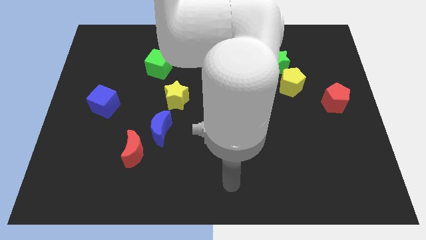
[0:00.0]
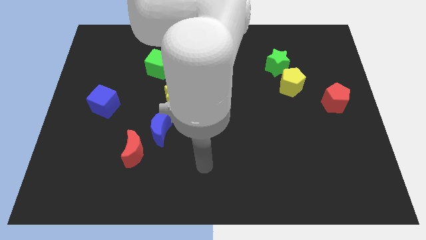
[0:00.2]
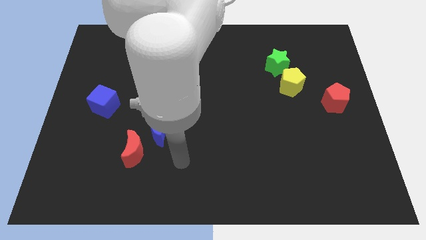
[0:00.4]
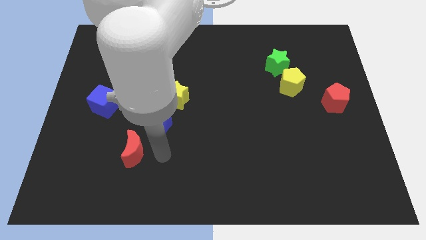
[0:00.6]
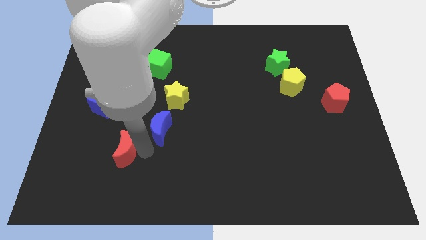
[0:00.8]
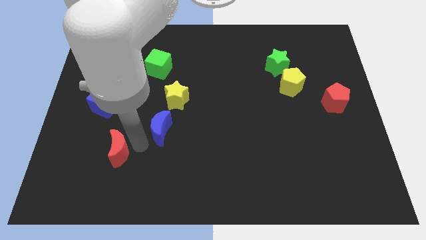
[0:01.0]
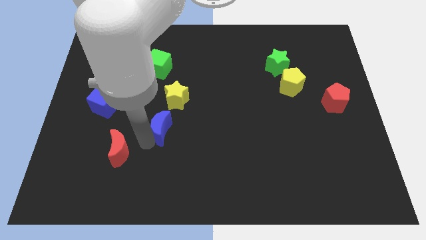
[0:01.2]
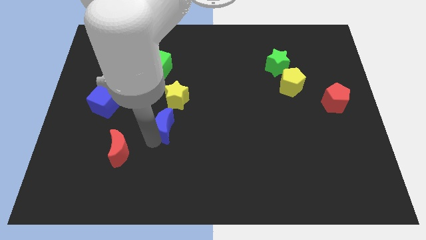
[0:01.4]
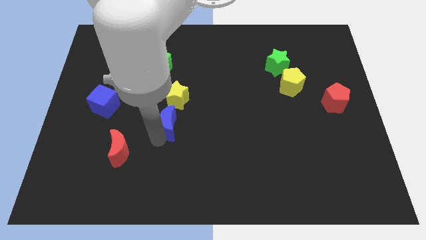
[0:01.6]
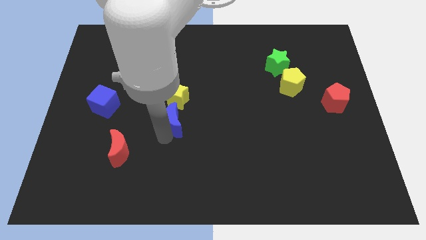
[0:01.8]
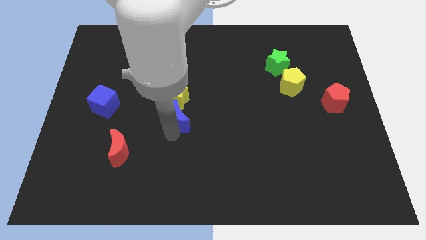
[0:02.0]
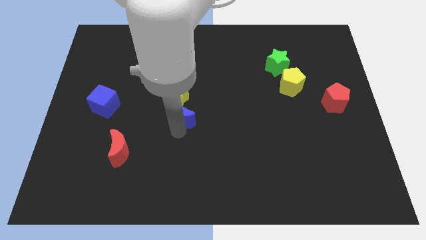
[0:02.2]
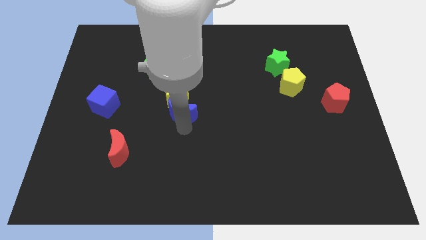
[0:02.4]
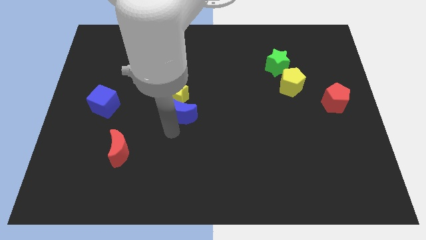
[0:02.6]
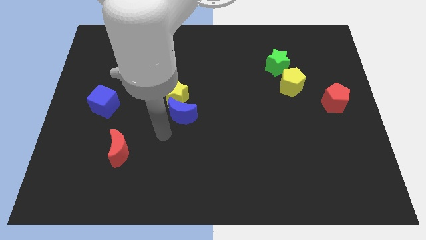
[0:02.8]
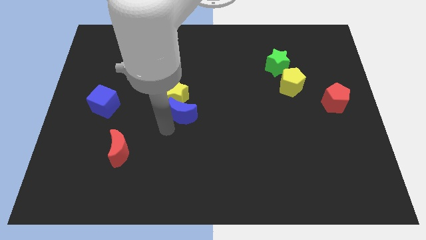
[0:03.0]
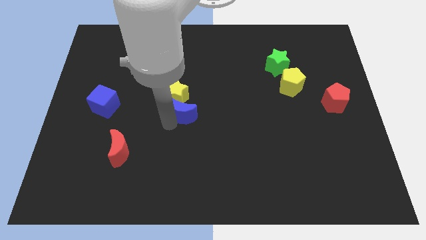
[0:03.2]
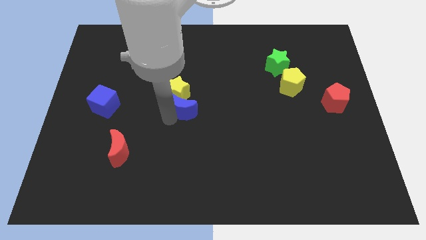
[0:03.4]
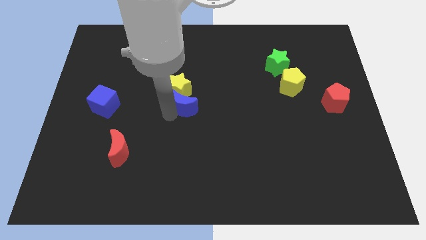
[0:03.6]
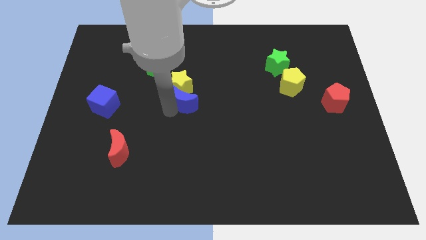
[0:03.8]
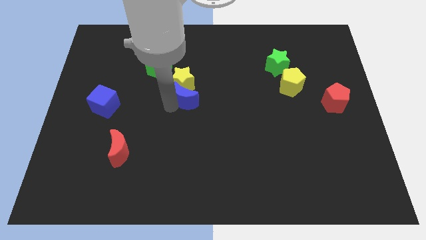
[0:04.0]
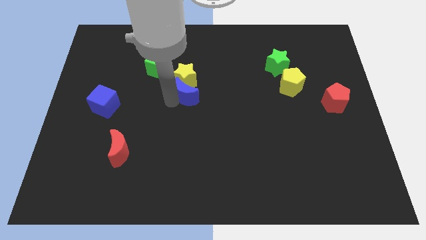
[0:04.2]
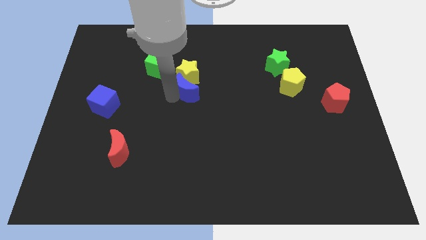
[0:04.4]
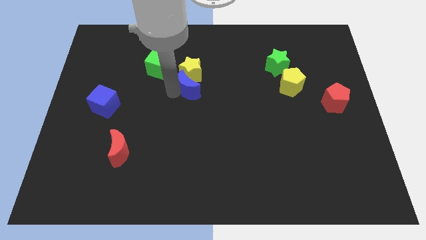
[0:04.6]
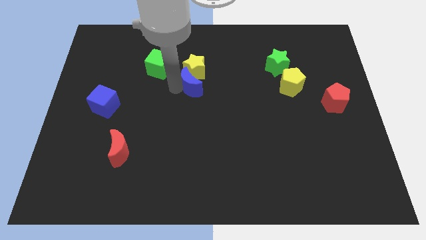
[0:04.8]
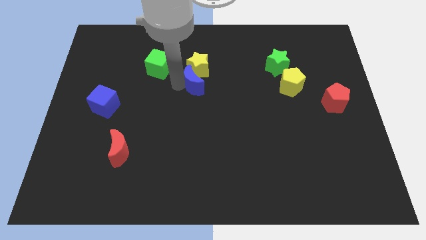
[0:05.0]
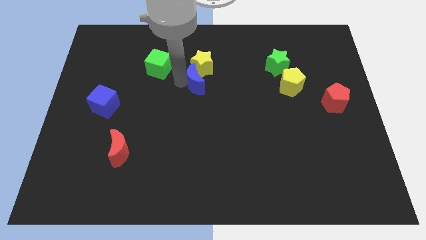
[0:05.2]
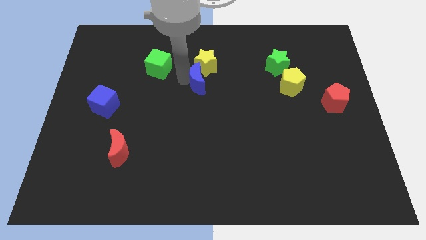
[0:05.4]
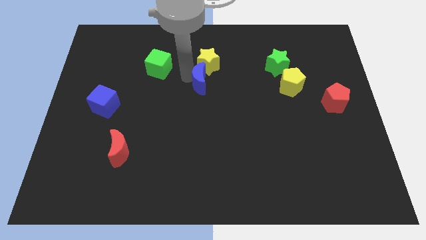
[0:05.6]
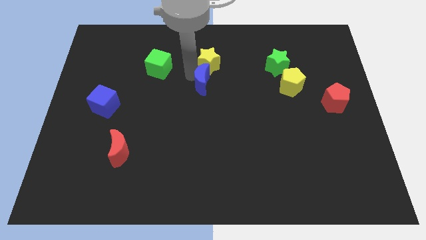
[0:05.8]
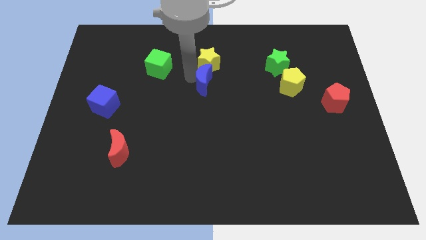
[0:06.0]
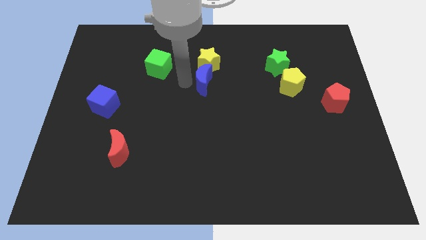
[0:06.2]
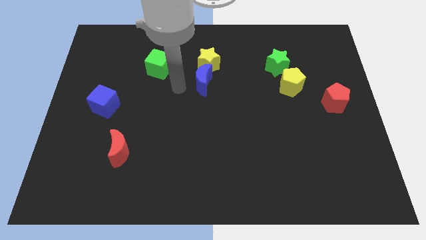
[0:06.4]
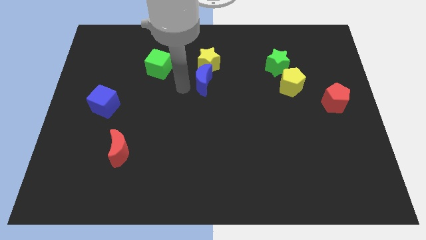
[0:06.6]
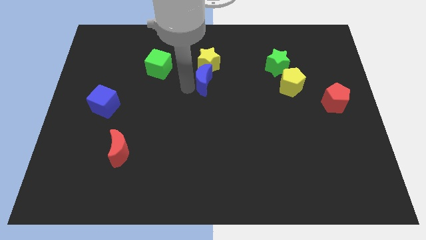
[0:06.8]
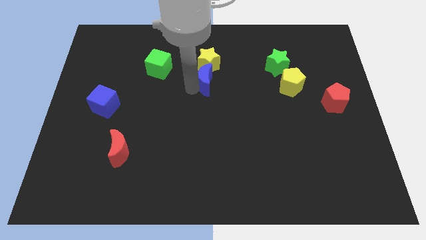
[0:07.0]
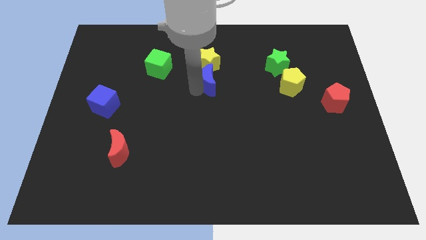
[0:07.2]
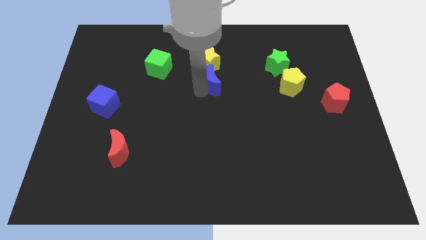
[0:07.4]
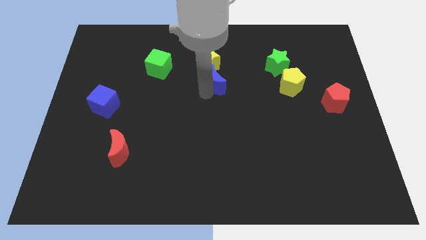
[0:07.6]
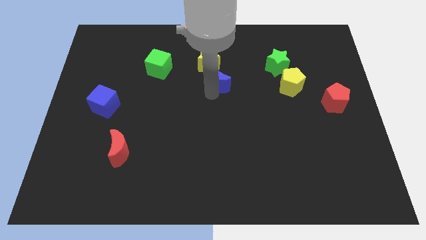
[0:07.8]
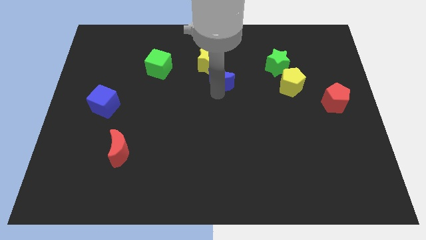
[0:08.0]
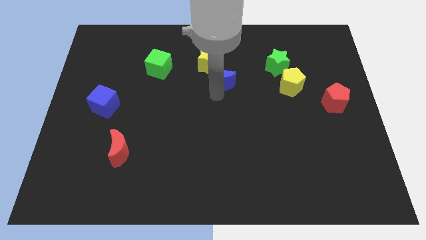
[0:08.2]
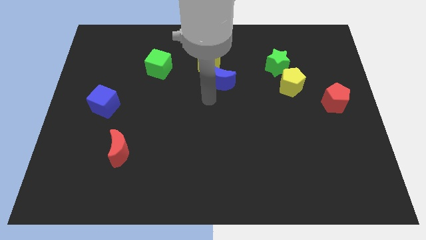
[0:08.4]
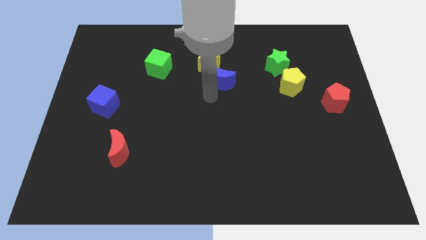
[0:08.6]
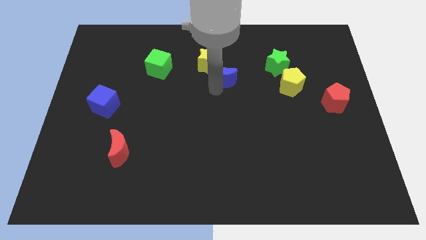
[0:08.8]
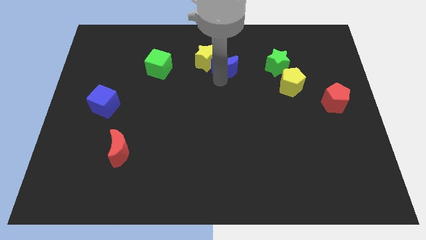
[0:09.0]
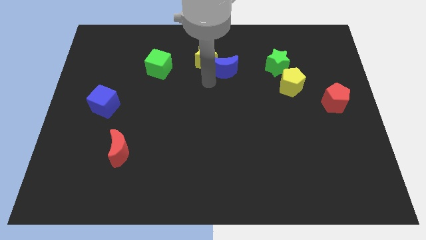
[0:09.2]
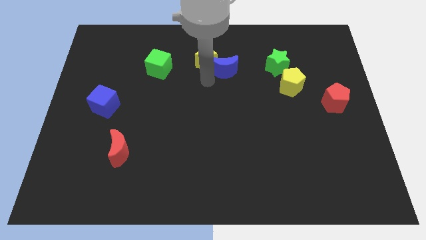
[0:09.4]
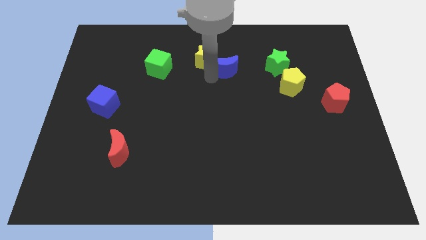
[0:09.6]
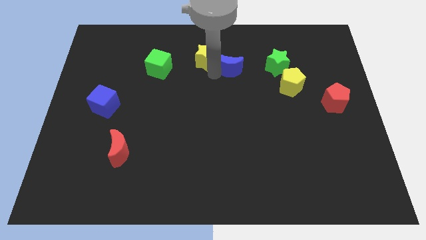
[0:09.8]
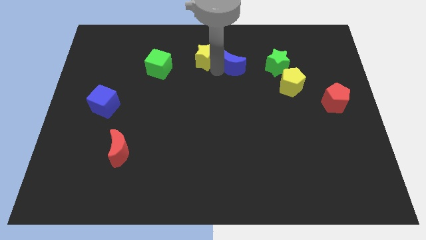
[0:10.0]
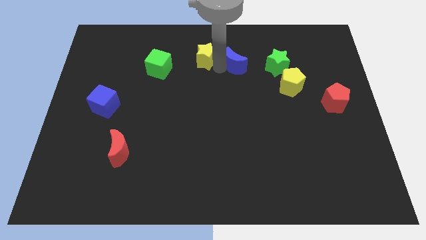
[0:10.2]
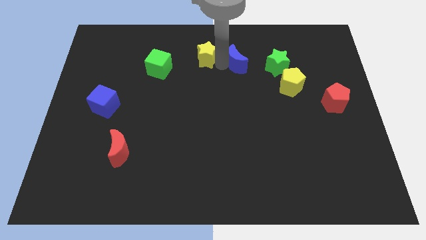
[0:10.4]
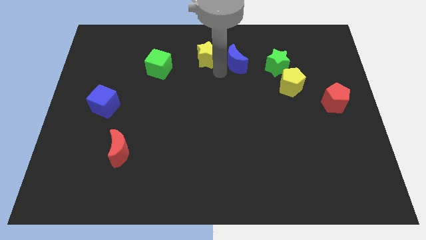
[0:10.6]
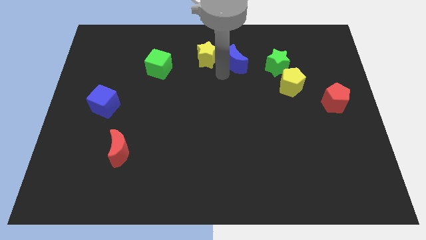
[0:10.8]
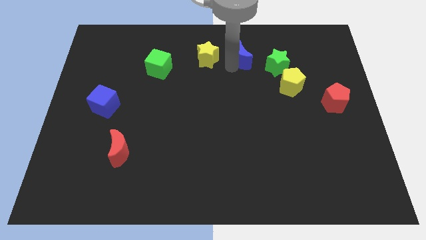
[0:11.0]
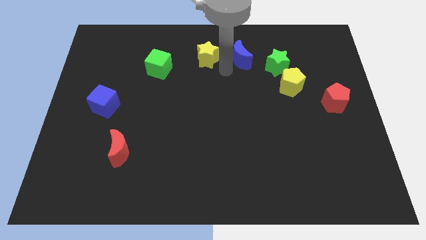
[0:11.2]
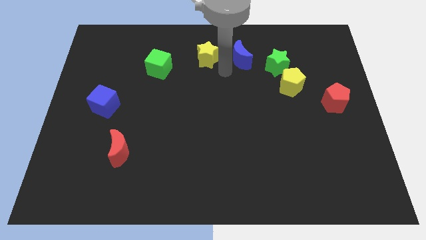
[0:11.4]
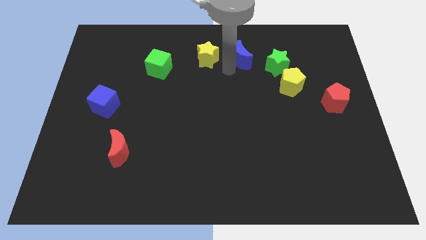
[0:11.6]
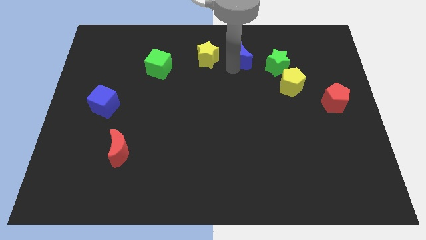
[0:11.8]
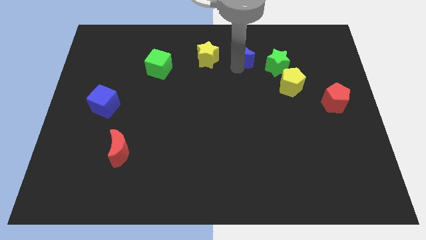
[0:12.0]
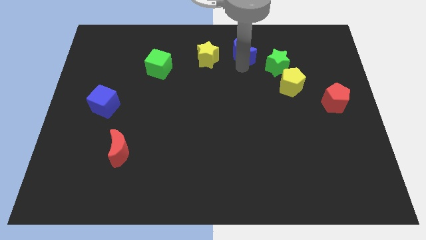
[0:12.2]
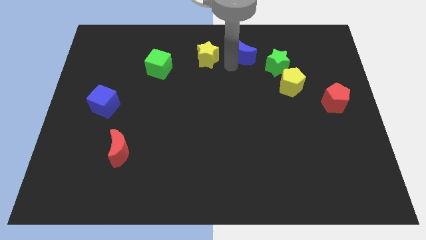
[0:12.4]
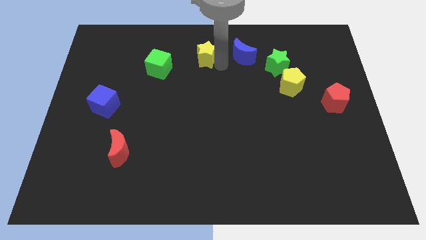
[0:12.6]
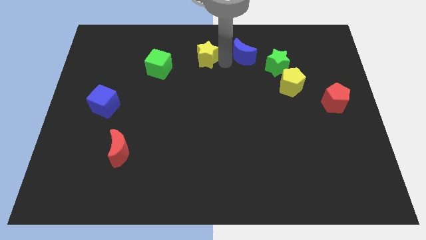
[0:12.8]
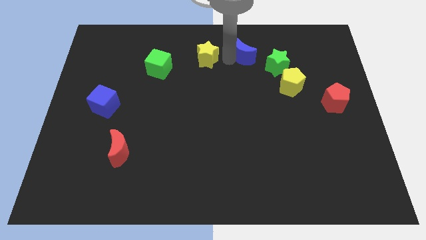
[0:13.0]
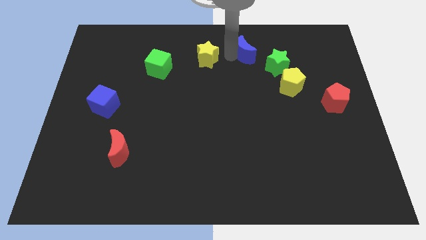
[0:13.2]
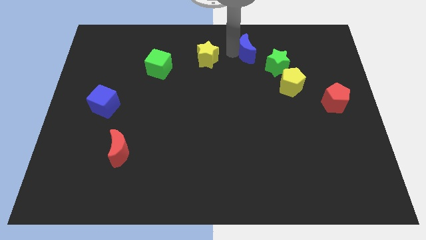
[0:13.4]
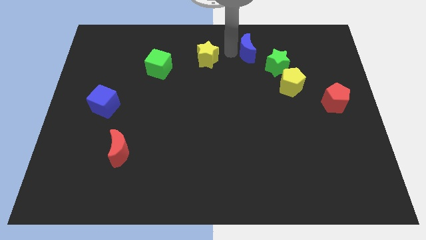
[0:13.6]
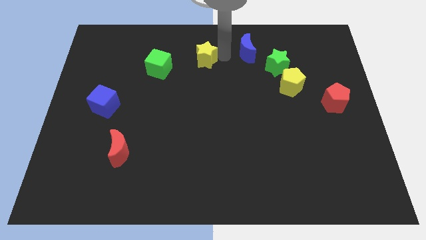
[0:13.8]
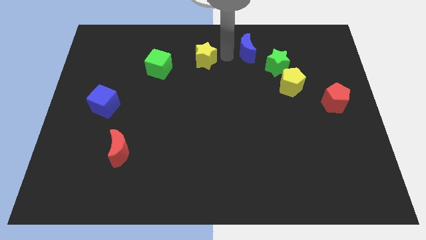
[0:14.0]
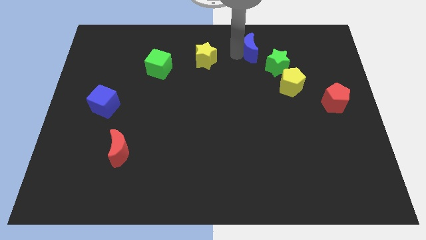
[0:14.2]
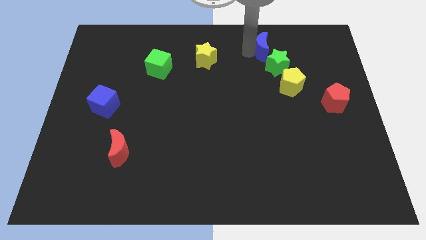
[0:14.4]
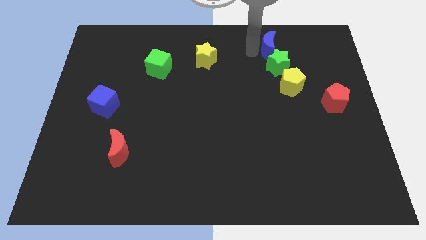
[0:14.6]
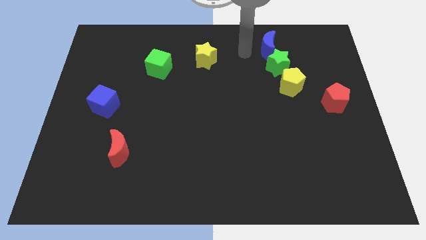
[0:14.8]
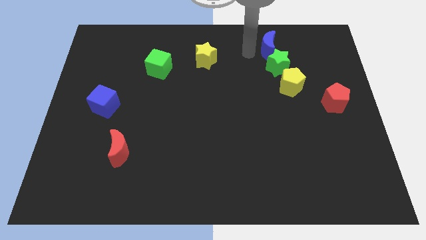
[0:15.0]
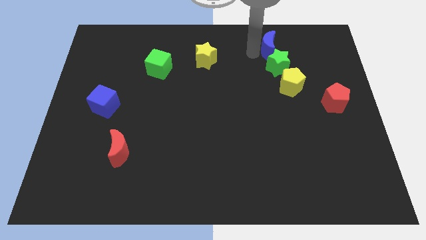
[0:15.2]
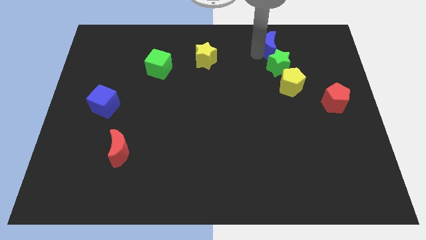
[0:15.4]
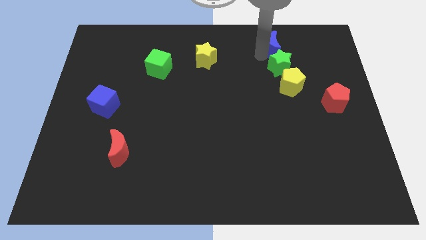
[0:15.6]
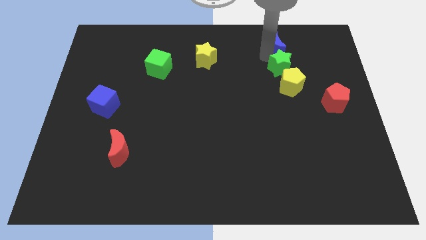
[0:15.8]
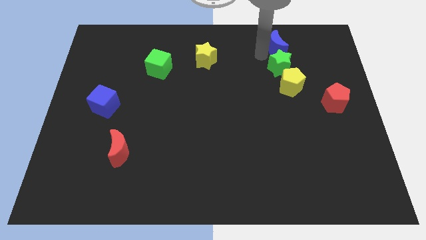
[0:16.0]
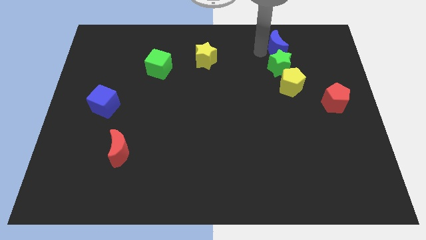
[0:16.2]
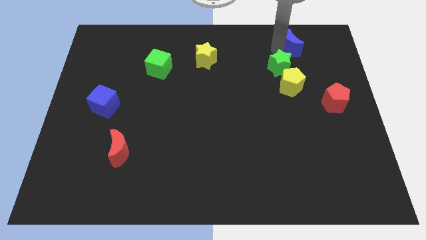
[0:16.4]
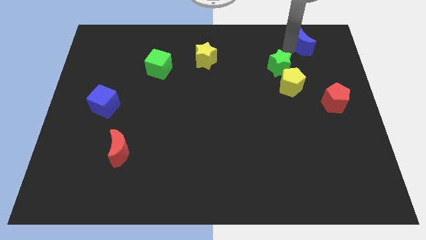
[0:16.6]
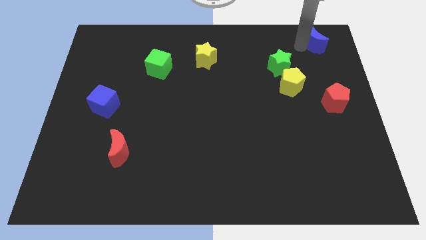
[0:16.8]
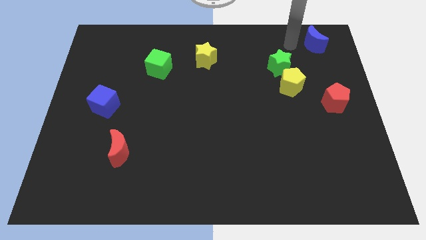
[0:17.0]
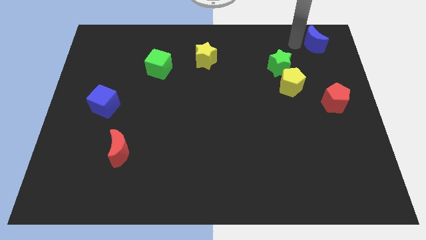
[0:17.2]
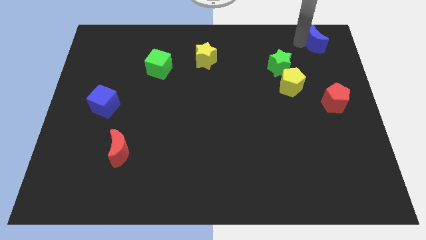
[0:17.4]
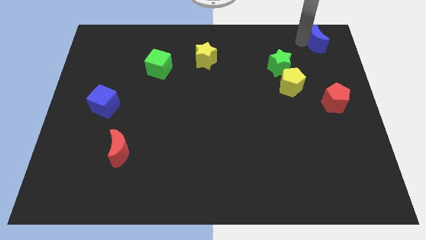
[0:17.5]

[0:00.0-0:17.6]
push the blue moon to the top right of the board
